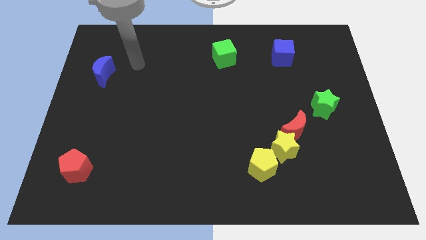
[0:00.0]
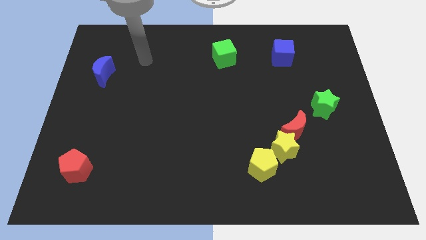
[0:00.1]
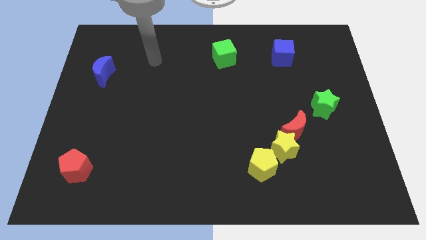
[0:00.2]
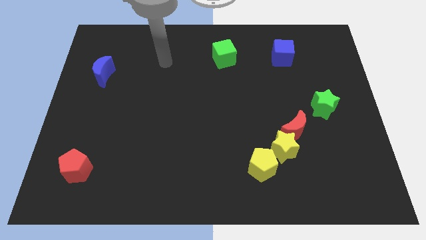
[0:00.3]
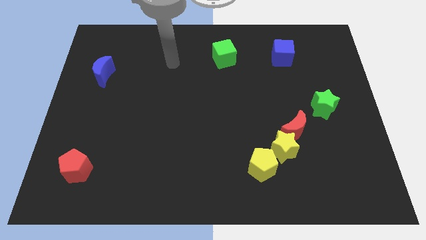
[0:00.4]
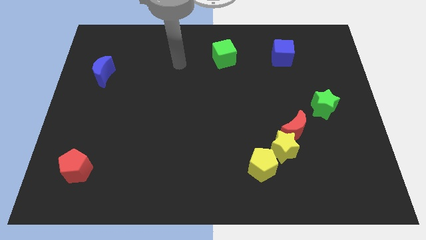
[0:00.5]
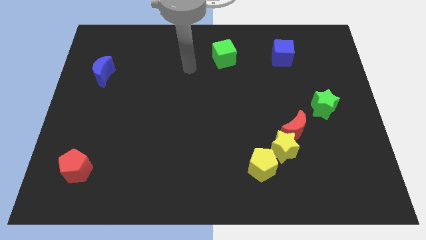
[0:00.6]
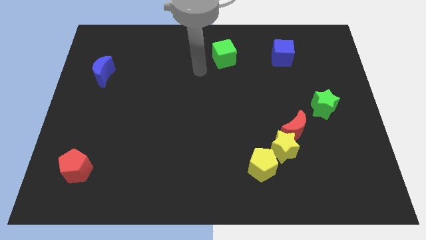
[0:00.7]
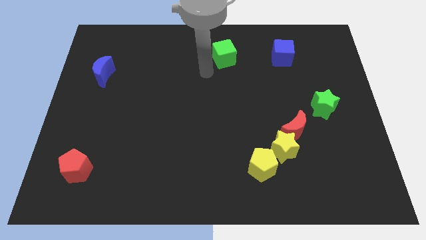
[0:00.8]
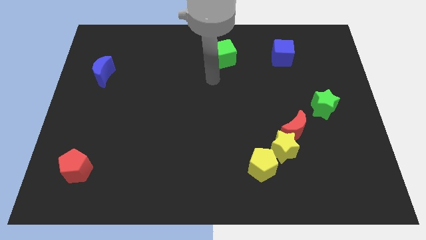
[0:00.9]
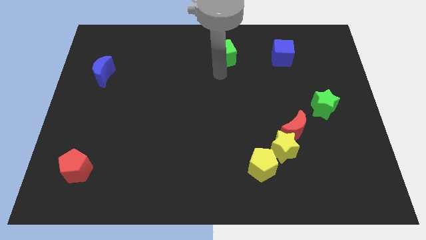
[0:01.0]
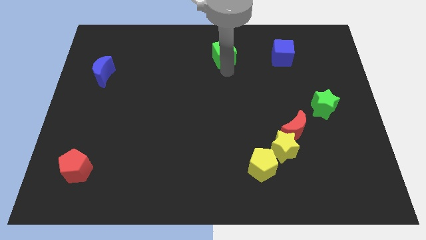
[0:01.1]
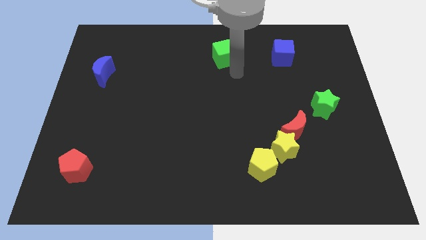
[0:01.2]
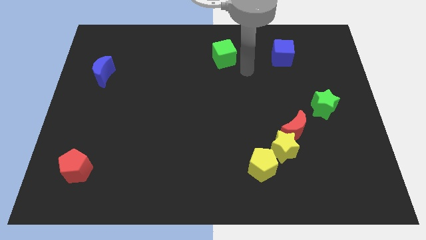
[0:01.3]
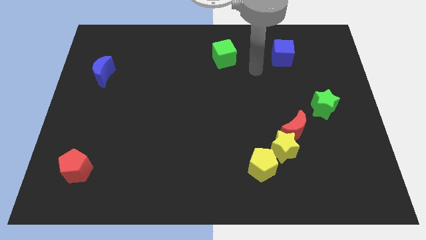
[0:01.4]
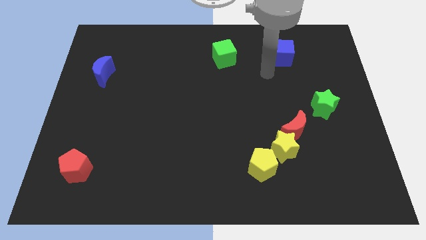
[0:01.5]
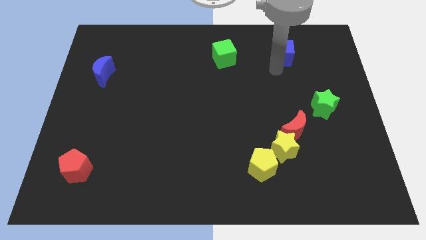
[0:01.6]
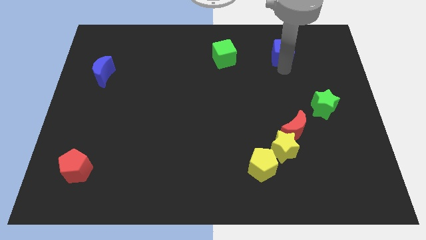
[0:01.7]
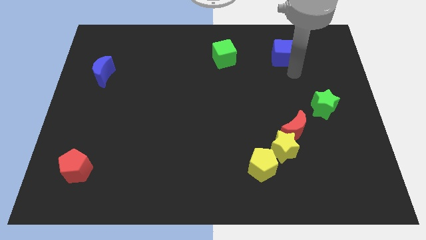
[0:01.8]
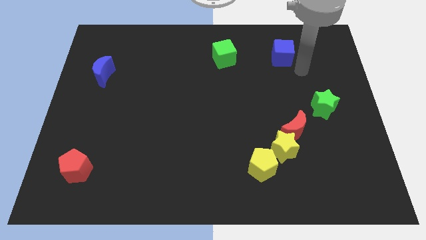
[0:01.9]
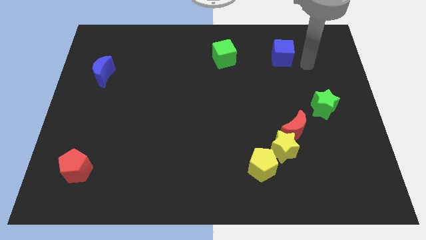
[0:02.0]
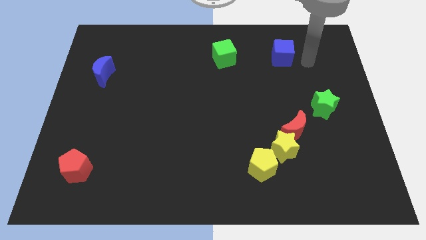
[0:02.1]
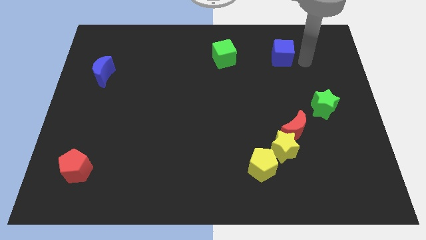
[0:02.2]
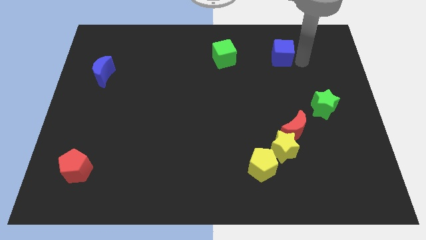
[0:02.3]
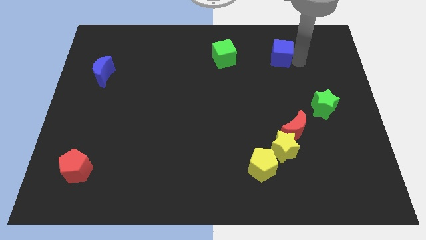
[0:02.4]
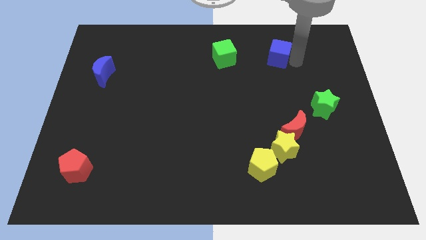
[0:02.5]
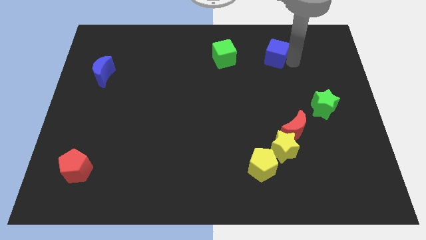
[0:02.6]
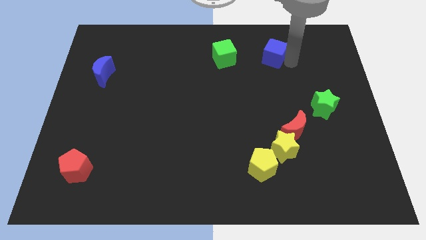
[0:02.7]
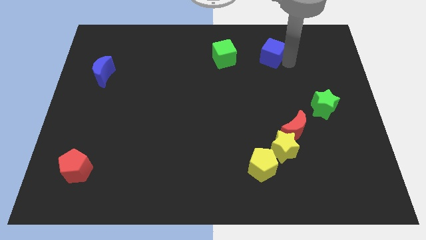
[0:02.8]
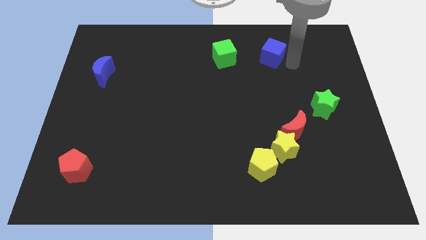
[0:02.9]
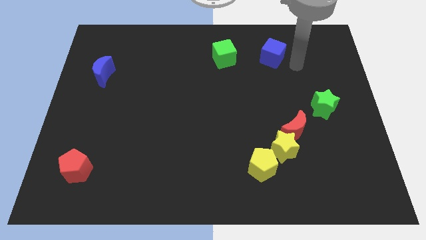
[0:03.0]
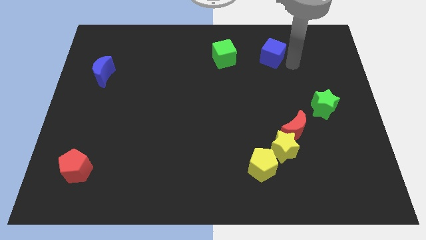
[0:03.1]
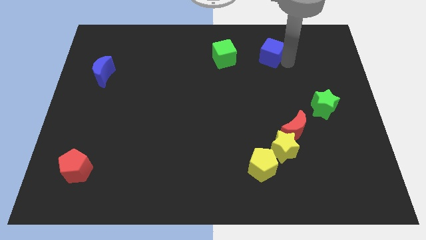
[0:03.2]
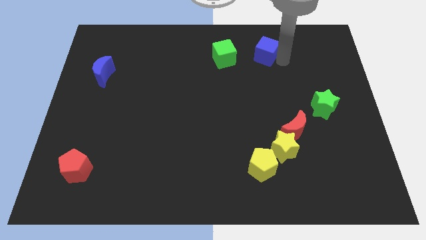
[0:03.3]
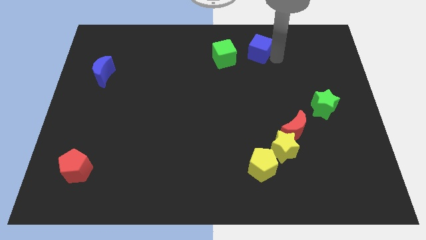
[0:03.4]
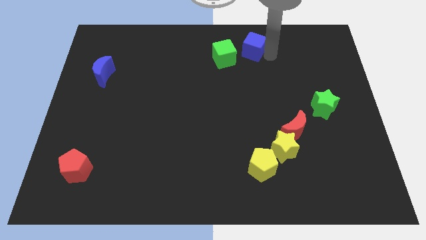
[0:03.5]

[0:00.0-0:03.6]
push the blue cube to the left a little

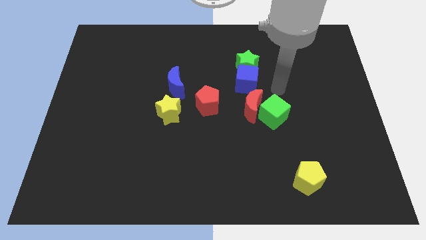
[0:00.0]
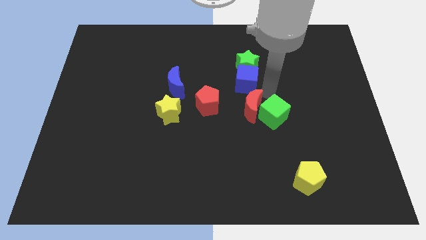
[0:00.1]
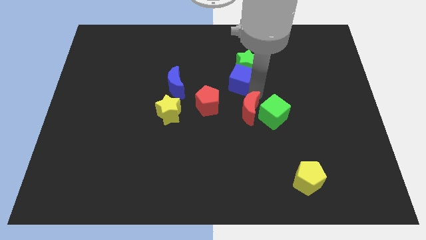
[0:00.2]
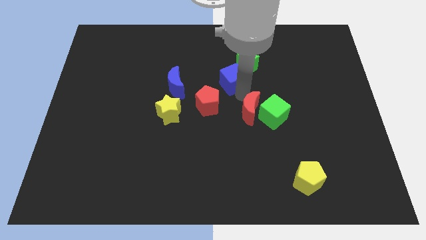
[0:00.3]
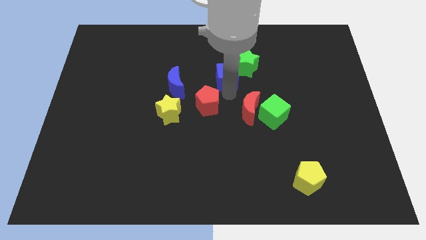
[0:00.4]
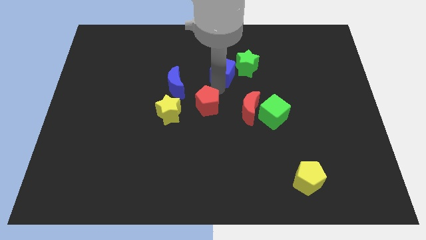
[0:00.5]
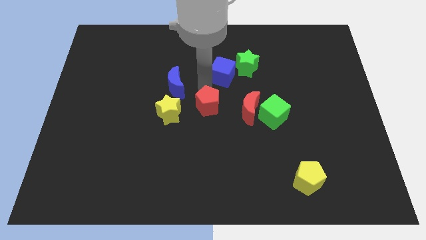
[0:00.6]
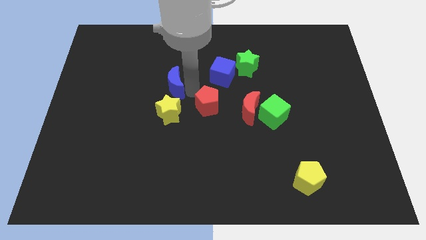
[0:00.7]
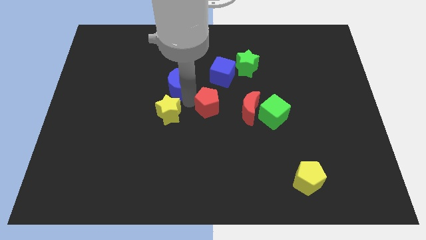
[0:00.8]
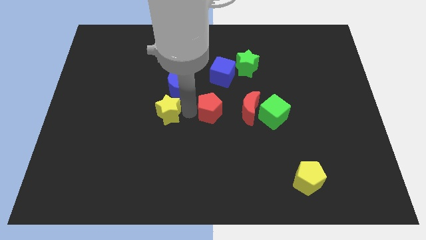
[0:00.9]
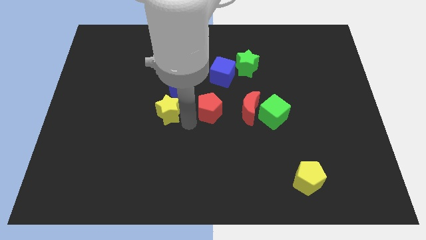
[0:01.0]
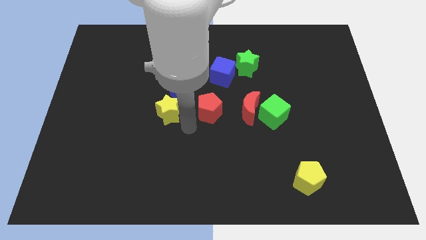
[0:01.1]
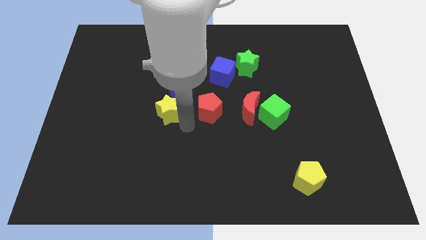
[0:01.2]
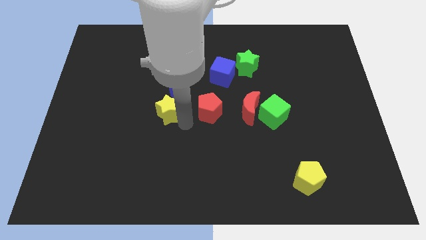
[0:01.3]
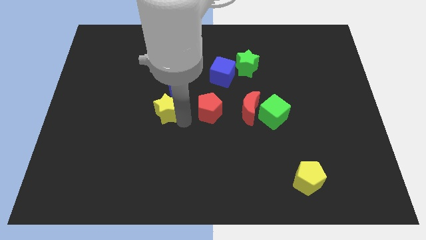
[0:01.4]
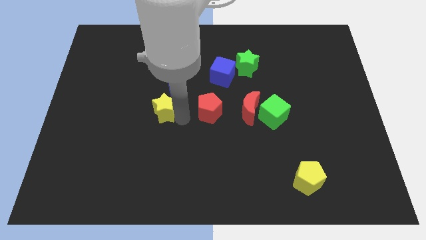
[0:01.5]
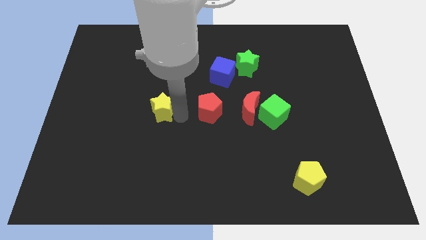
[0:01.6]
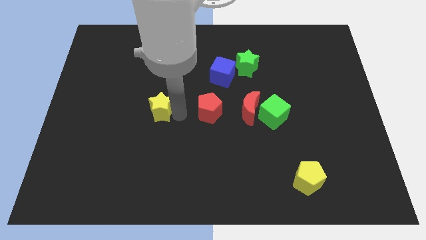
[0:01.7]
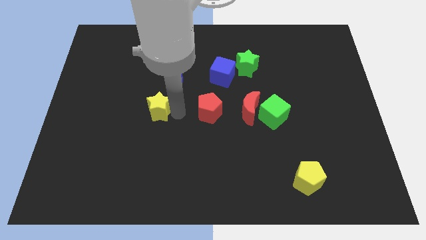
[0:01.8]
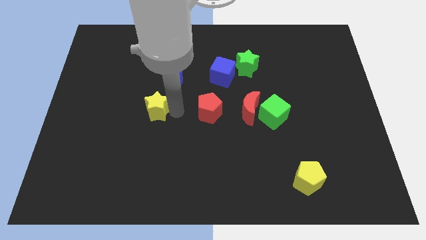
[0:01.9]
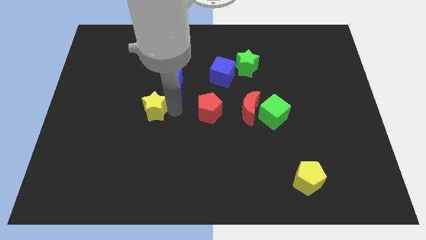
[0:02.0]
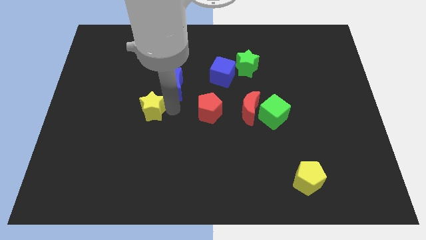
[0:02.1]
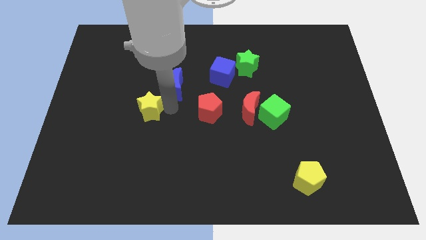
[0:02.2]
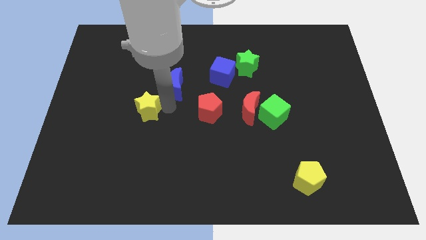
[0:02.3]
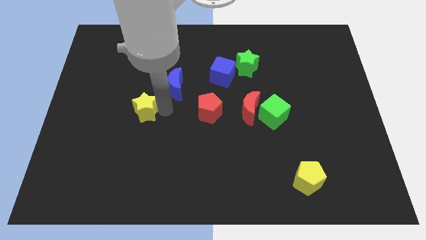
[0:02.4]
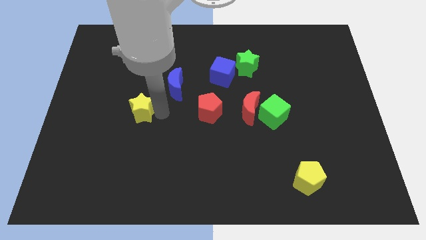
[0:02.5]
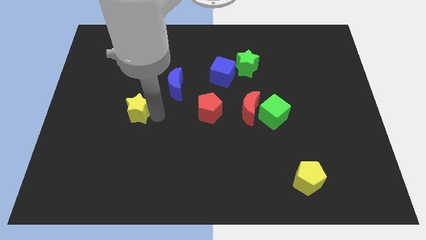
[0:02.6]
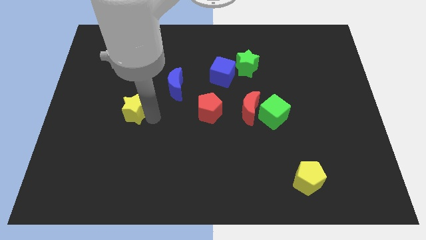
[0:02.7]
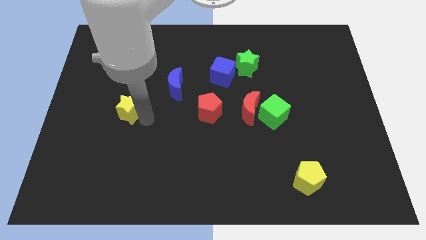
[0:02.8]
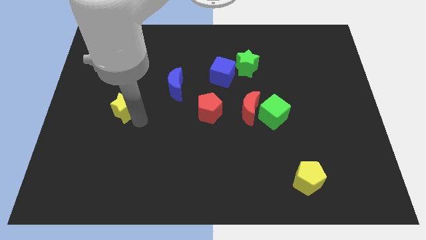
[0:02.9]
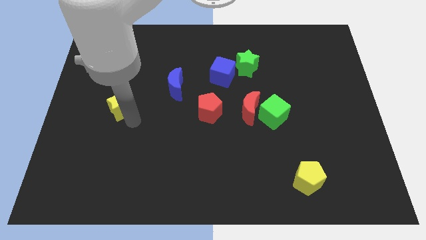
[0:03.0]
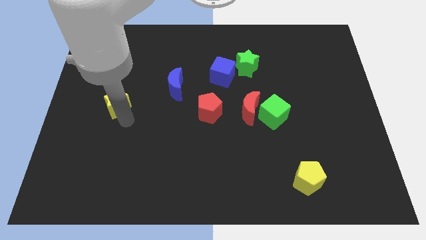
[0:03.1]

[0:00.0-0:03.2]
move the yellow star upwards and to the left somewhat

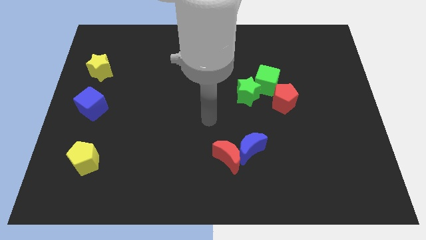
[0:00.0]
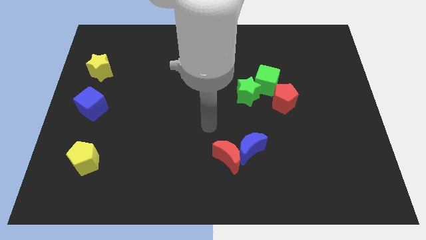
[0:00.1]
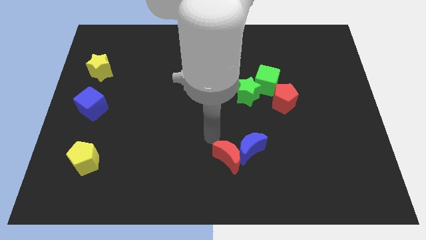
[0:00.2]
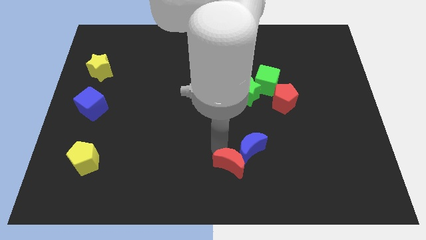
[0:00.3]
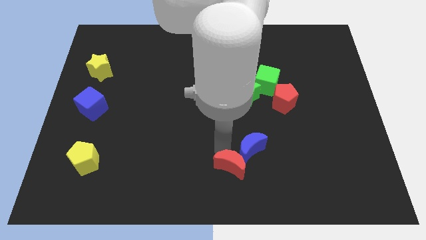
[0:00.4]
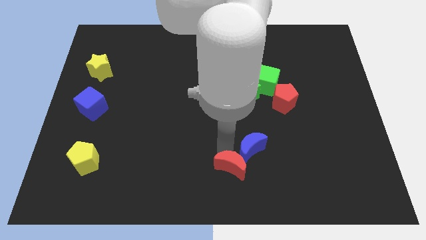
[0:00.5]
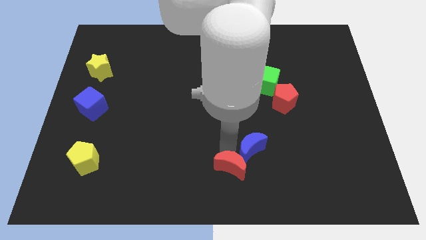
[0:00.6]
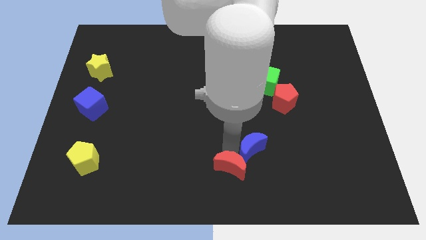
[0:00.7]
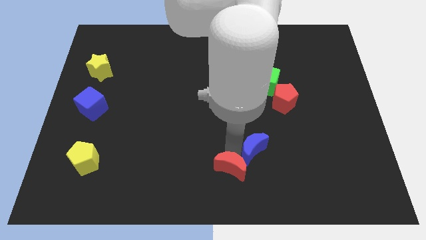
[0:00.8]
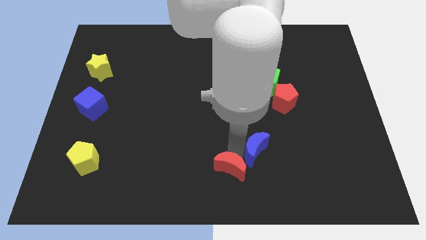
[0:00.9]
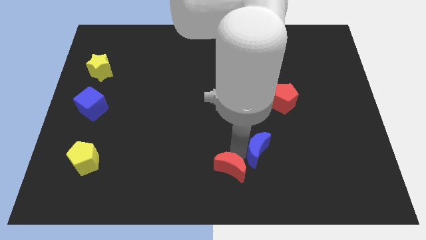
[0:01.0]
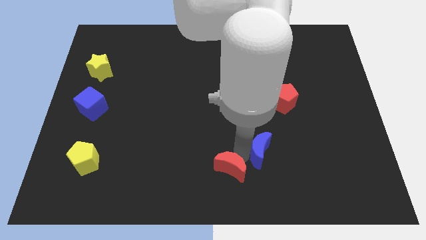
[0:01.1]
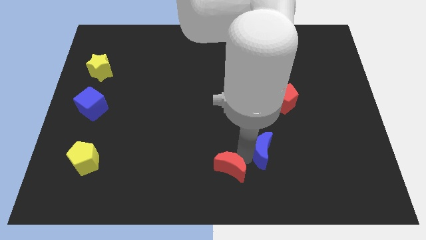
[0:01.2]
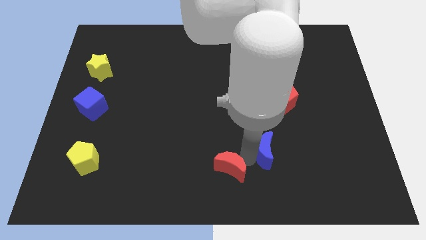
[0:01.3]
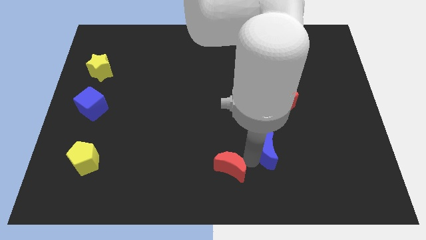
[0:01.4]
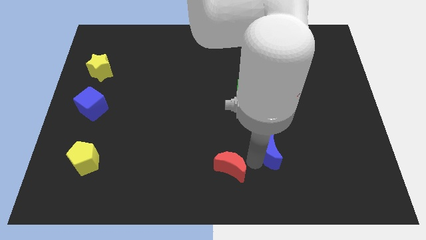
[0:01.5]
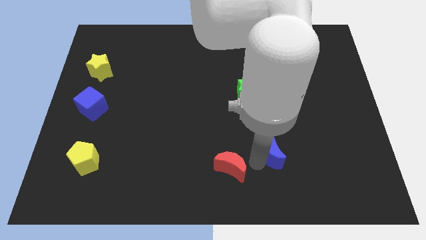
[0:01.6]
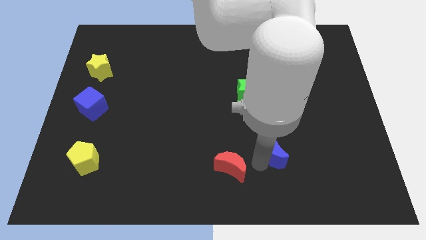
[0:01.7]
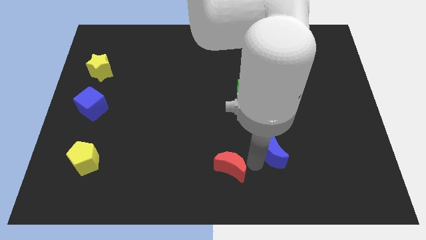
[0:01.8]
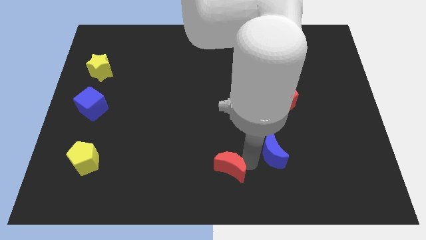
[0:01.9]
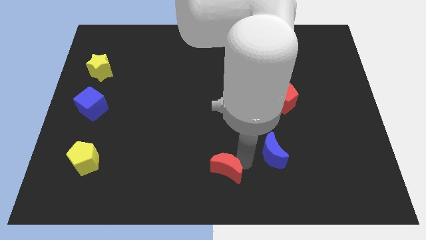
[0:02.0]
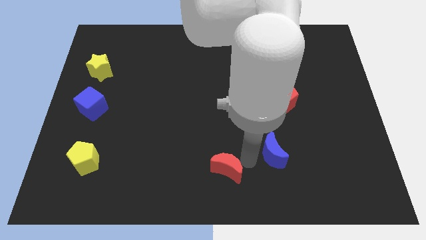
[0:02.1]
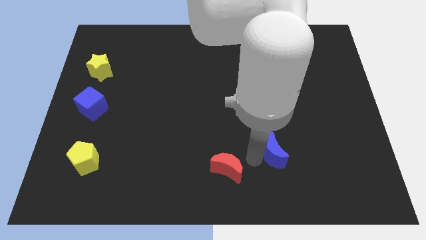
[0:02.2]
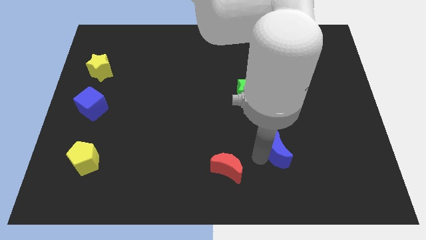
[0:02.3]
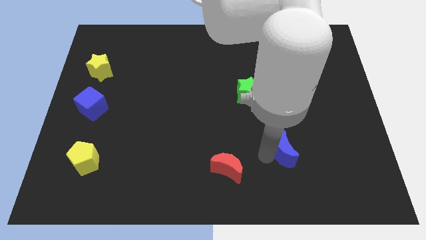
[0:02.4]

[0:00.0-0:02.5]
slightly slide the blue moon to the right
